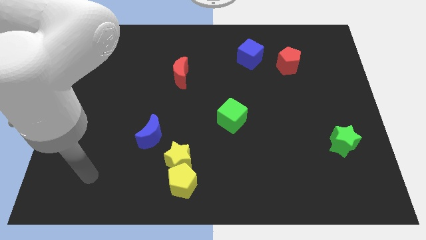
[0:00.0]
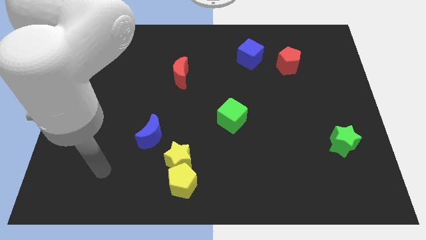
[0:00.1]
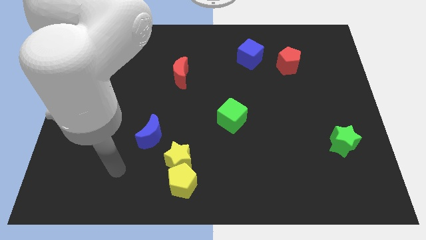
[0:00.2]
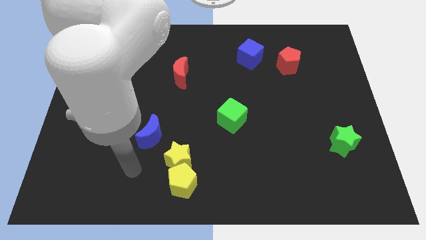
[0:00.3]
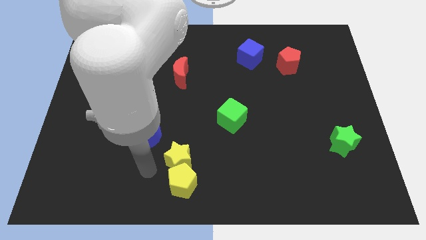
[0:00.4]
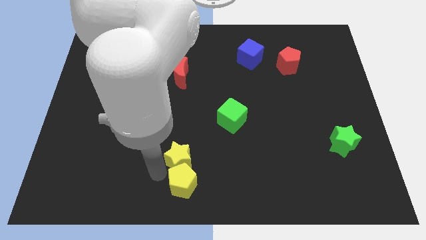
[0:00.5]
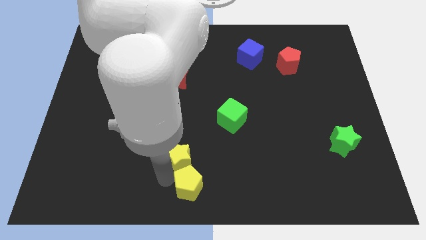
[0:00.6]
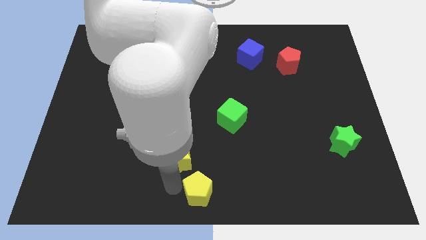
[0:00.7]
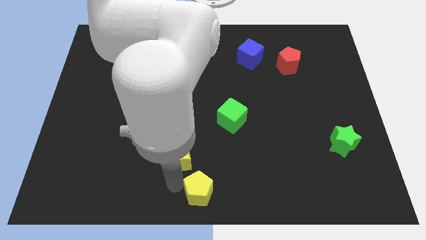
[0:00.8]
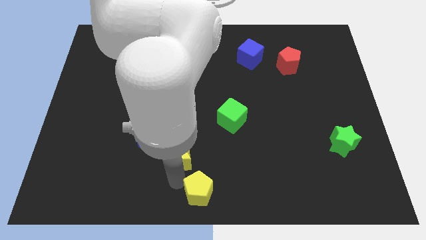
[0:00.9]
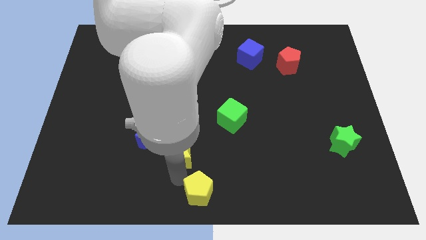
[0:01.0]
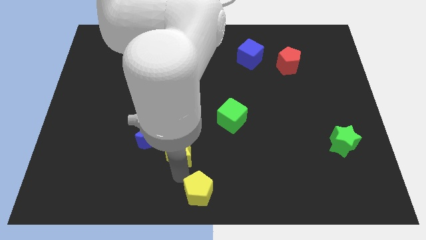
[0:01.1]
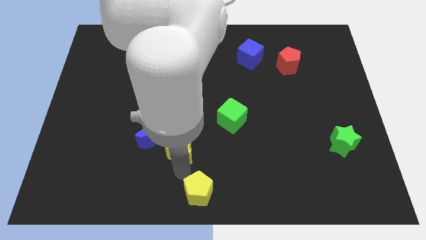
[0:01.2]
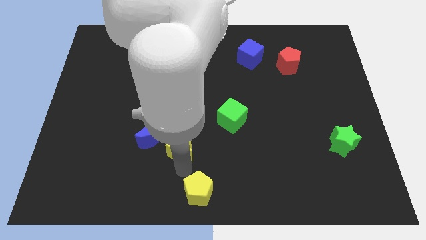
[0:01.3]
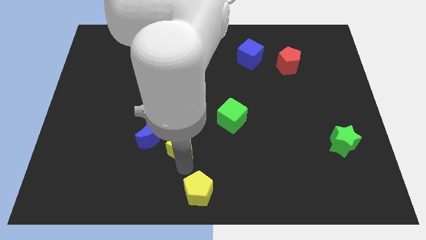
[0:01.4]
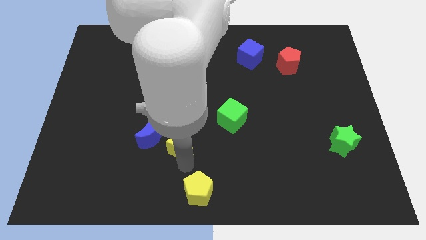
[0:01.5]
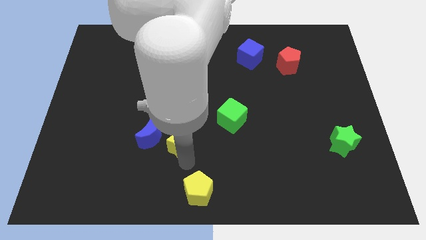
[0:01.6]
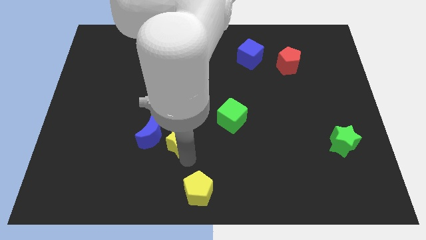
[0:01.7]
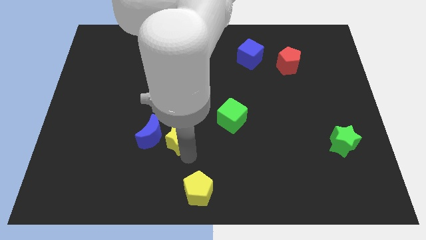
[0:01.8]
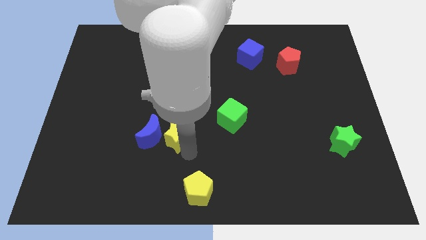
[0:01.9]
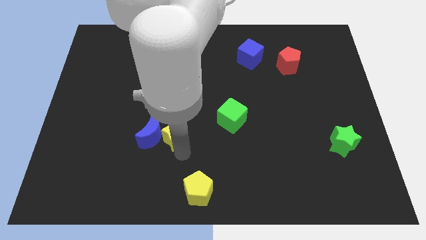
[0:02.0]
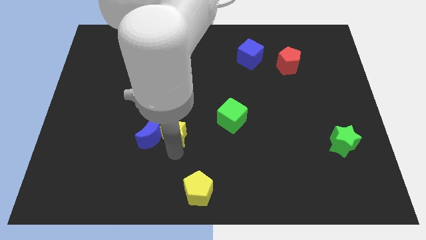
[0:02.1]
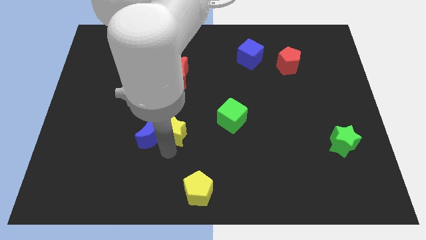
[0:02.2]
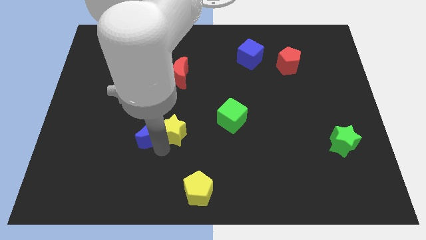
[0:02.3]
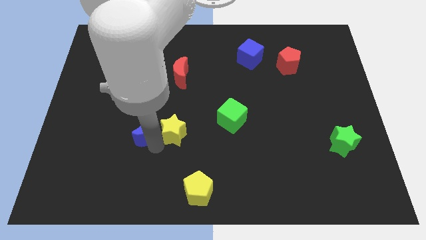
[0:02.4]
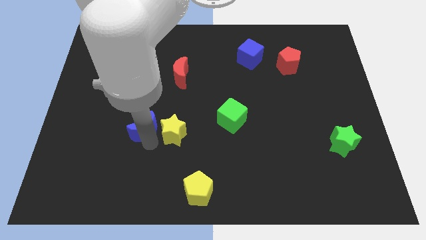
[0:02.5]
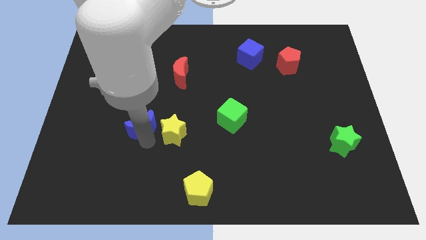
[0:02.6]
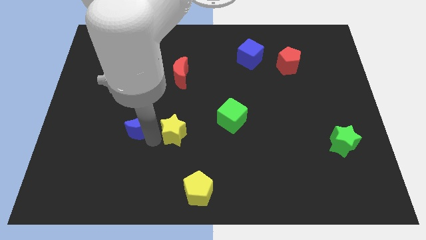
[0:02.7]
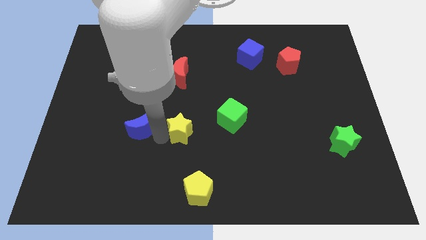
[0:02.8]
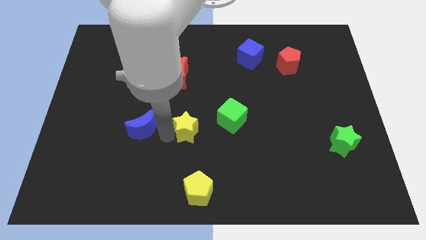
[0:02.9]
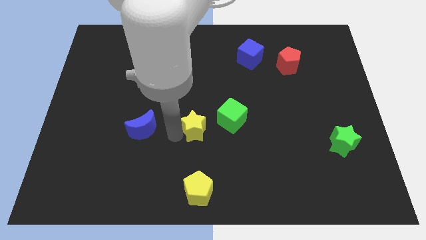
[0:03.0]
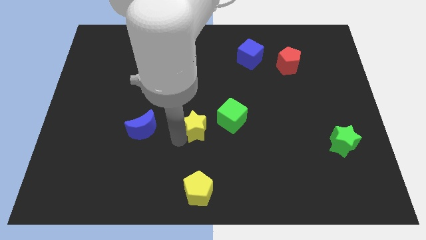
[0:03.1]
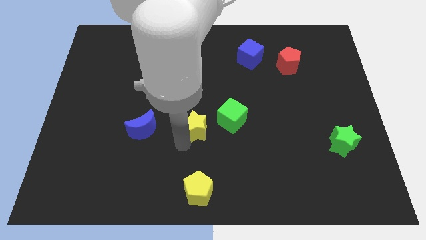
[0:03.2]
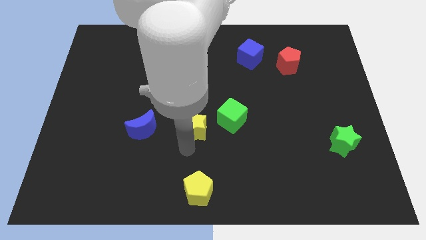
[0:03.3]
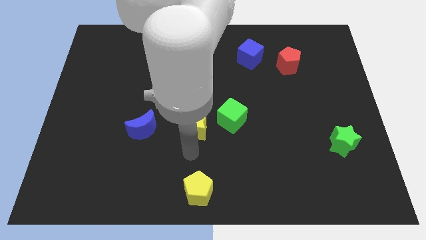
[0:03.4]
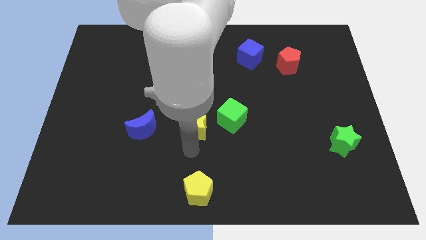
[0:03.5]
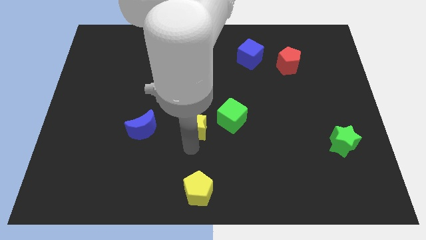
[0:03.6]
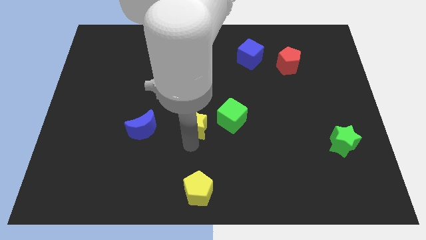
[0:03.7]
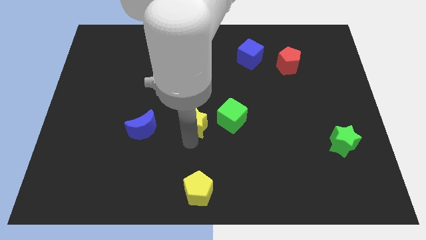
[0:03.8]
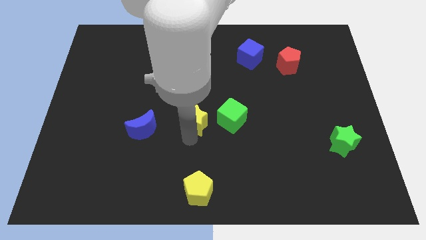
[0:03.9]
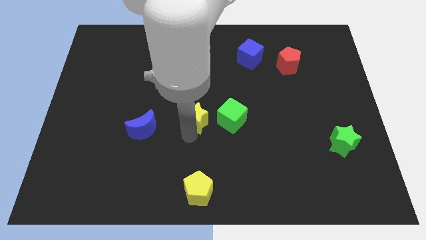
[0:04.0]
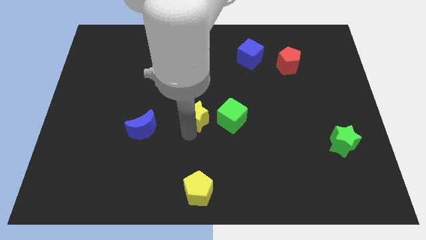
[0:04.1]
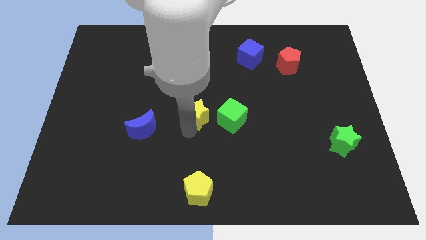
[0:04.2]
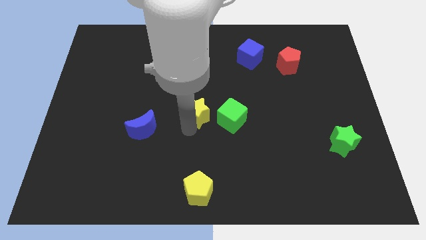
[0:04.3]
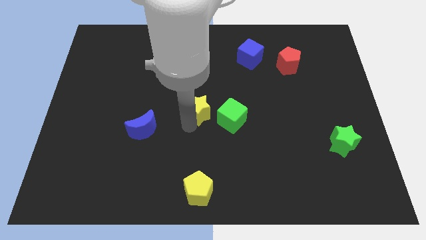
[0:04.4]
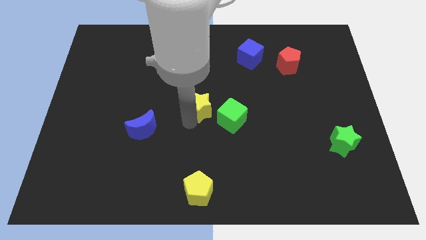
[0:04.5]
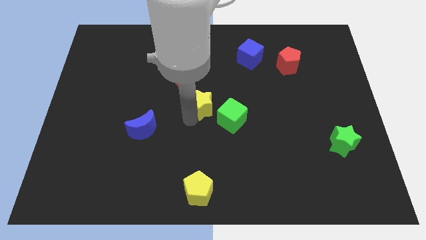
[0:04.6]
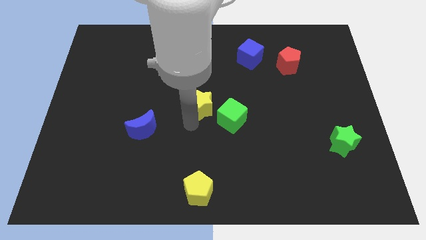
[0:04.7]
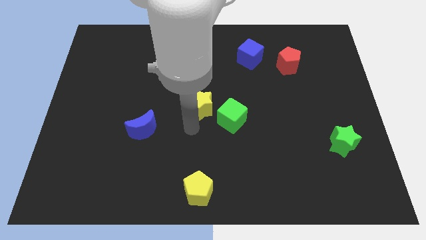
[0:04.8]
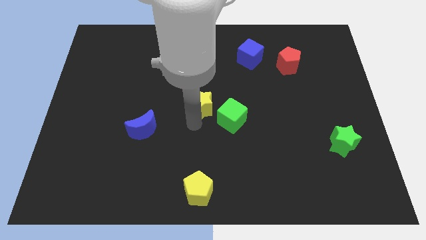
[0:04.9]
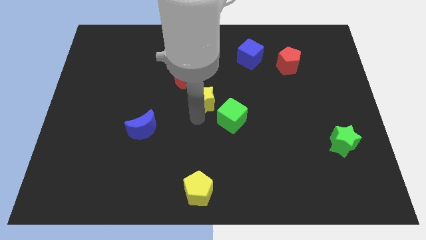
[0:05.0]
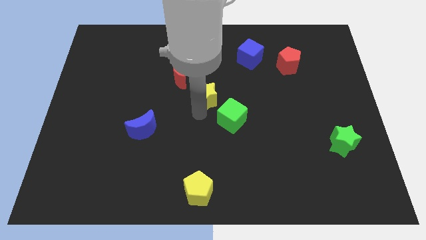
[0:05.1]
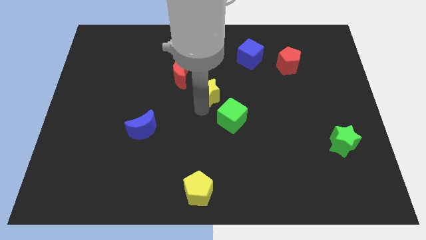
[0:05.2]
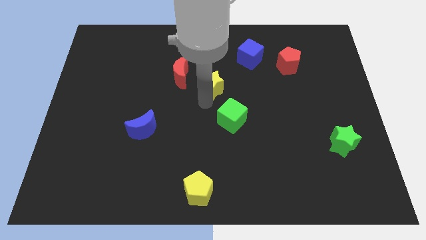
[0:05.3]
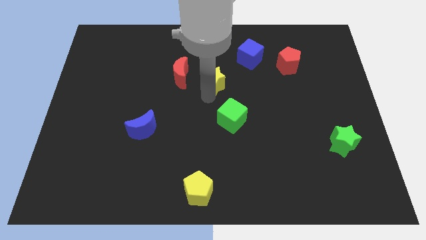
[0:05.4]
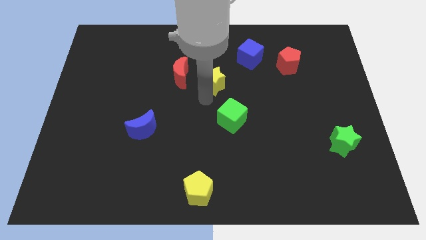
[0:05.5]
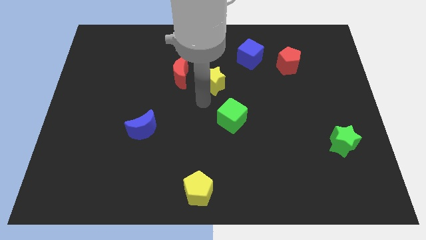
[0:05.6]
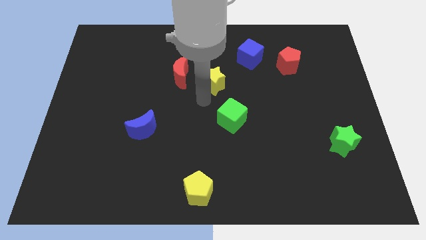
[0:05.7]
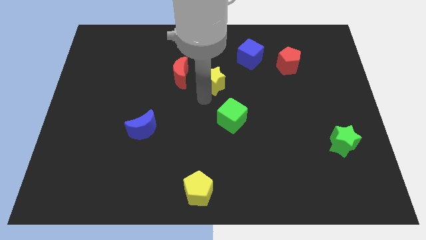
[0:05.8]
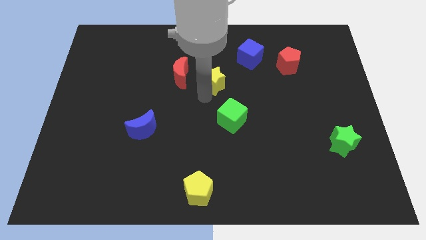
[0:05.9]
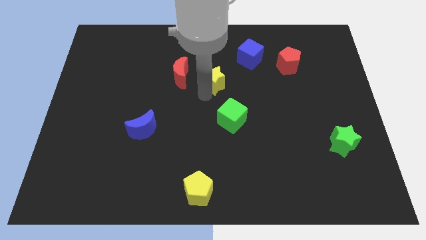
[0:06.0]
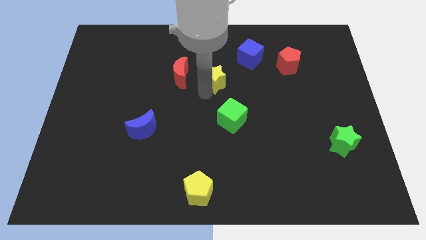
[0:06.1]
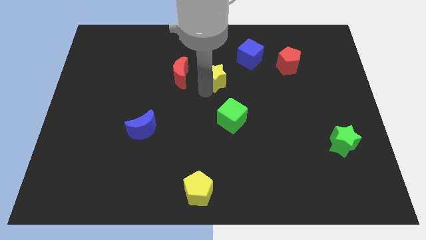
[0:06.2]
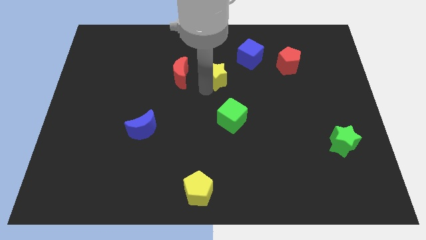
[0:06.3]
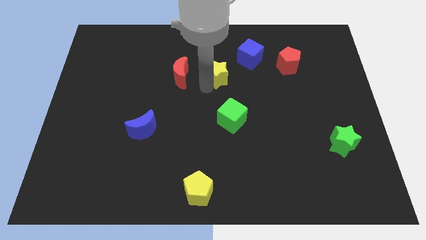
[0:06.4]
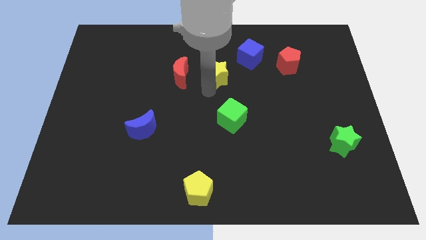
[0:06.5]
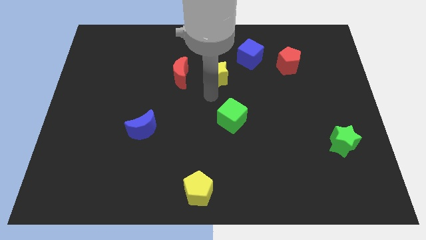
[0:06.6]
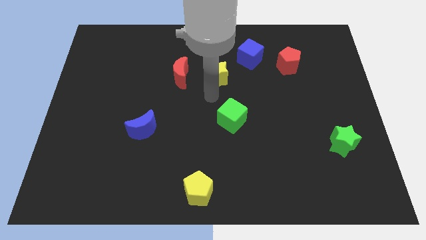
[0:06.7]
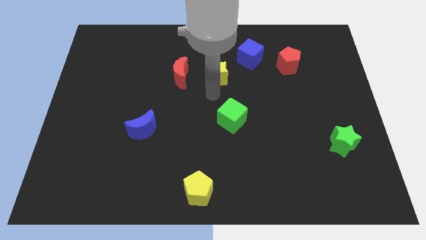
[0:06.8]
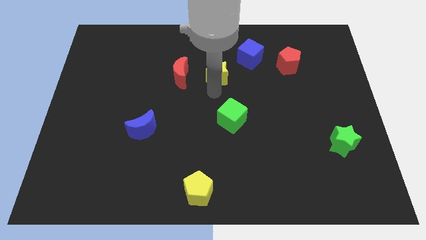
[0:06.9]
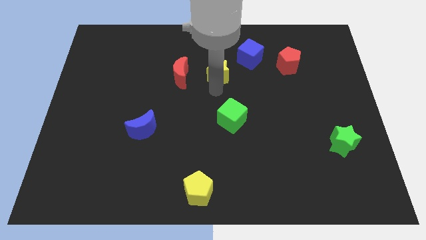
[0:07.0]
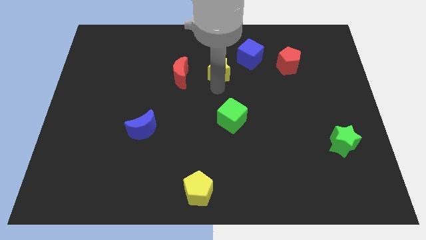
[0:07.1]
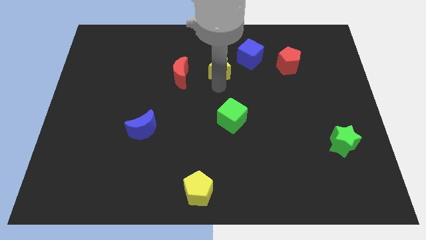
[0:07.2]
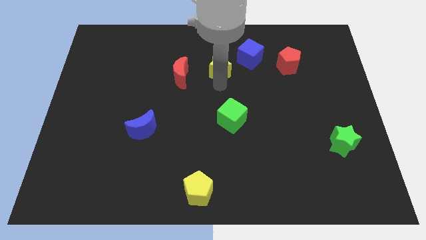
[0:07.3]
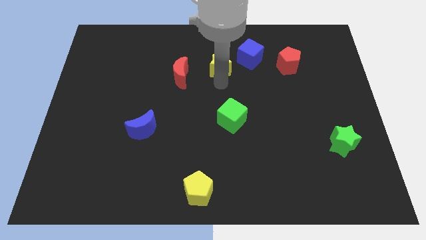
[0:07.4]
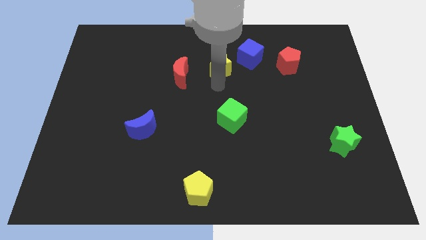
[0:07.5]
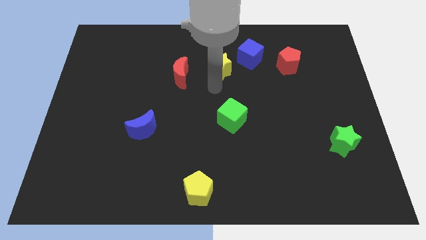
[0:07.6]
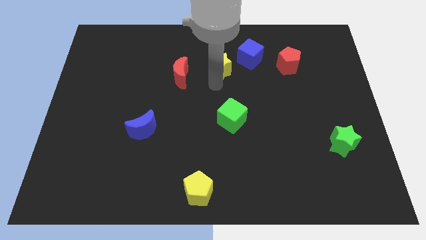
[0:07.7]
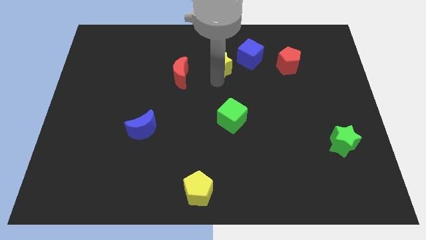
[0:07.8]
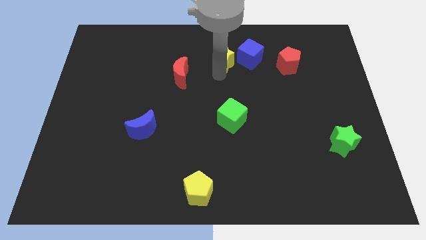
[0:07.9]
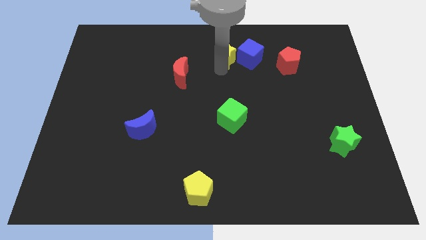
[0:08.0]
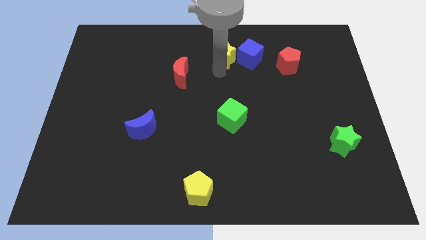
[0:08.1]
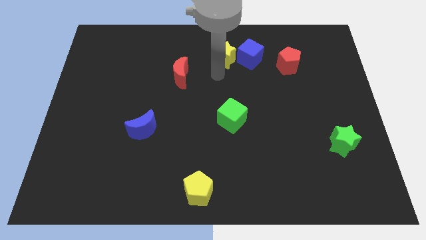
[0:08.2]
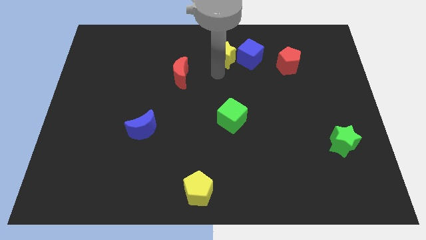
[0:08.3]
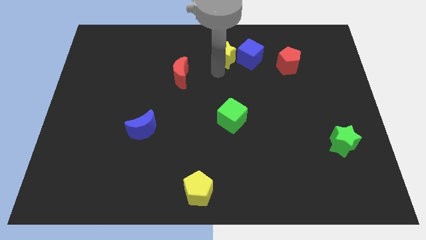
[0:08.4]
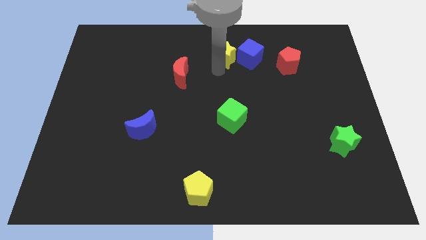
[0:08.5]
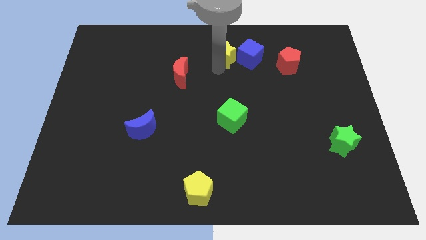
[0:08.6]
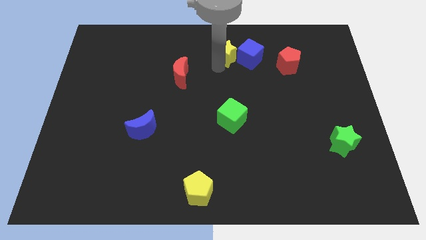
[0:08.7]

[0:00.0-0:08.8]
slide the yellow star to the towards your base
